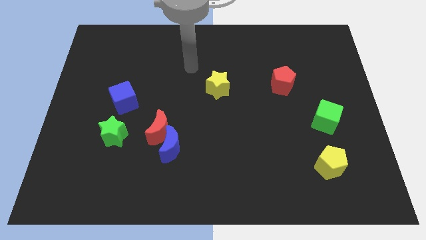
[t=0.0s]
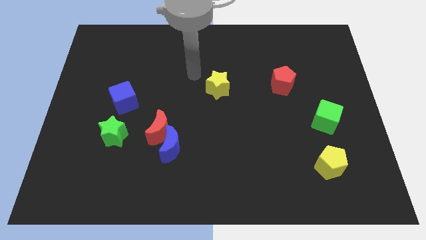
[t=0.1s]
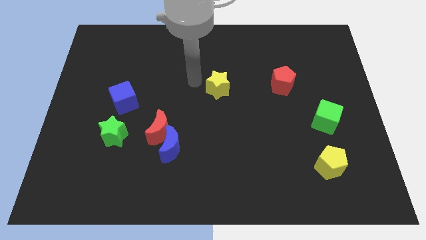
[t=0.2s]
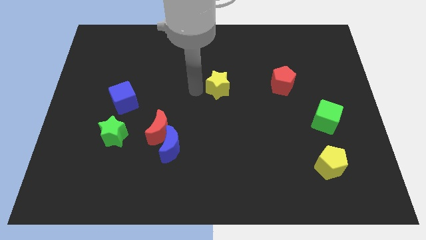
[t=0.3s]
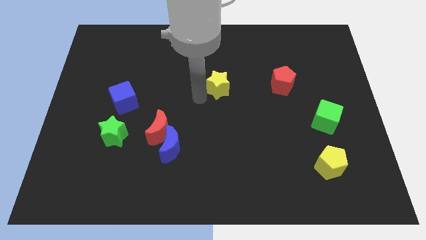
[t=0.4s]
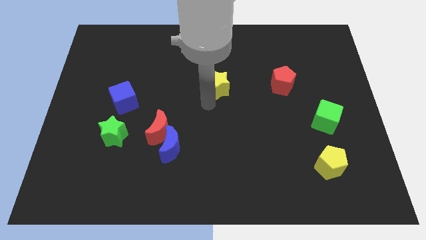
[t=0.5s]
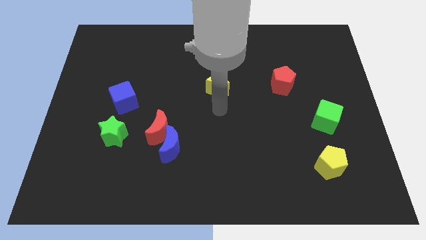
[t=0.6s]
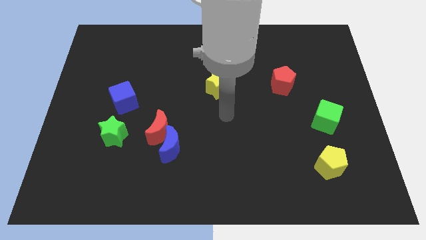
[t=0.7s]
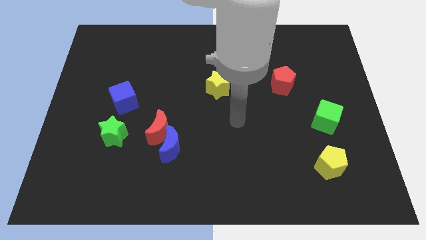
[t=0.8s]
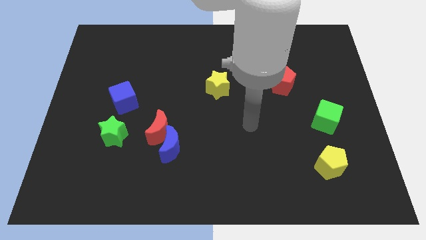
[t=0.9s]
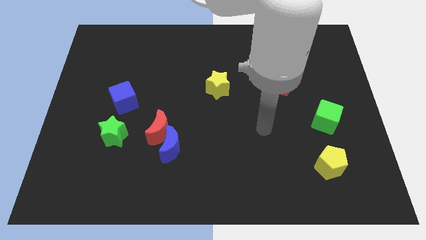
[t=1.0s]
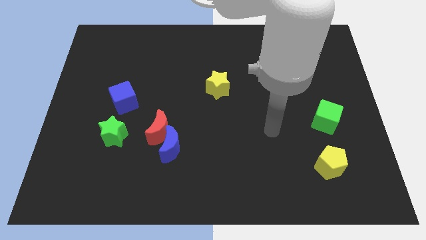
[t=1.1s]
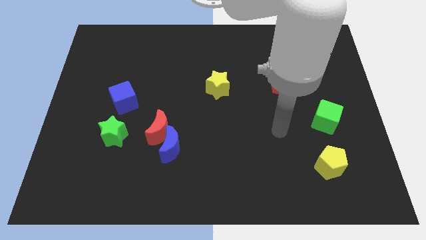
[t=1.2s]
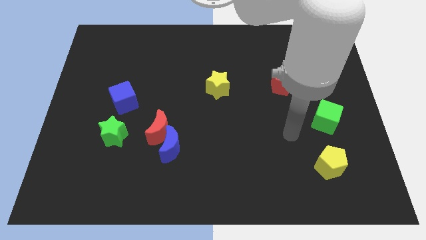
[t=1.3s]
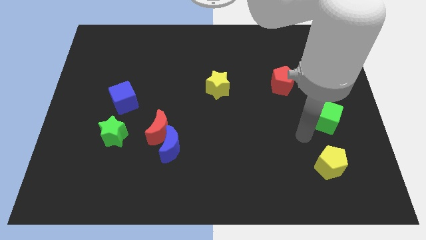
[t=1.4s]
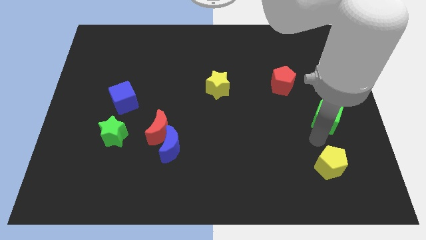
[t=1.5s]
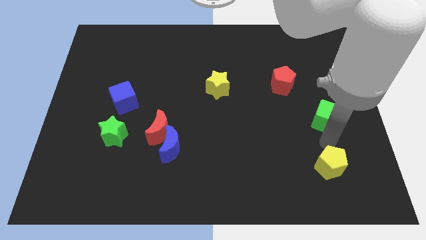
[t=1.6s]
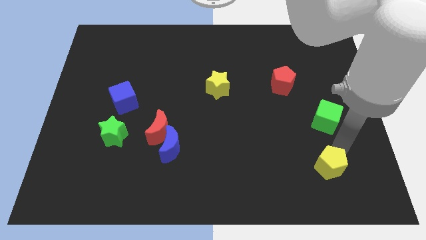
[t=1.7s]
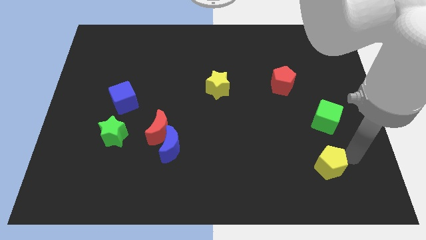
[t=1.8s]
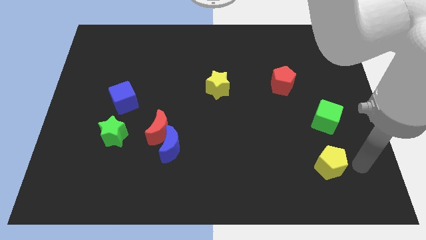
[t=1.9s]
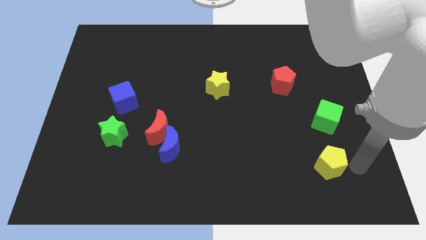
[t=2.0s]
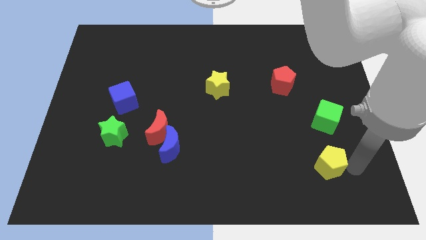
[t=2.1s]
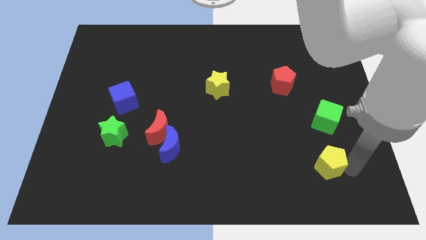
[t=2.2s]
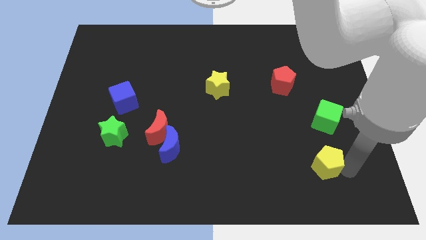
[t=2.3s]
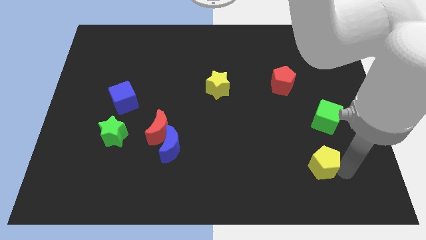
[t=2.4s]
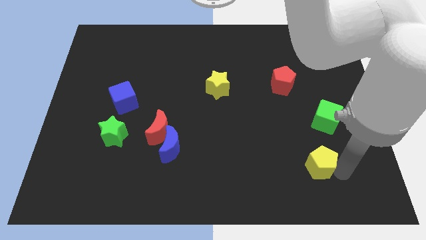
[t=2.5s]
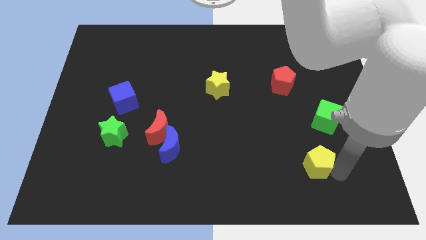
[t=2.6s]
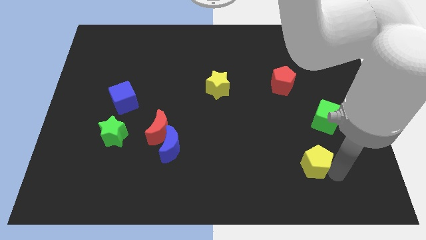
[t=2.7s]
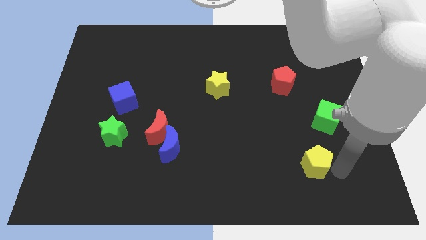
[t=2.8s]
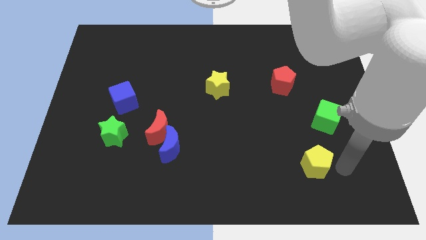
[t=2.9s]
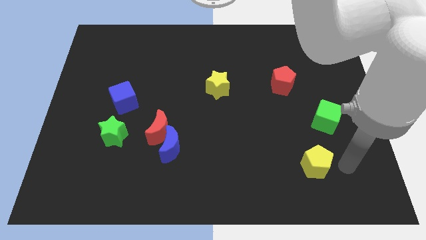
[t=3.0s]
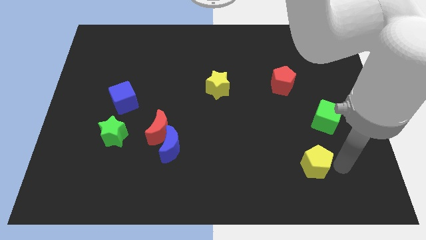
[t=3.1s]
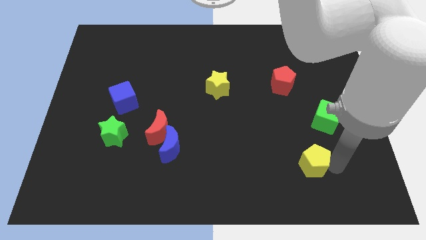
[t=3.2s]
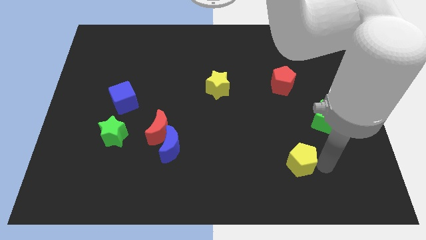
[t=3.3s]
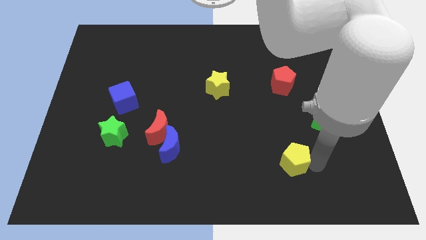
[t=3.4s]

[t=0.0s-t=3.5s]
slide the yellow pentagon slightly to the left

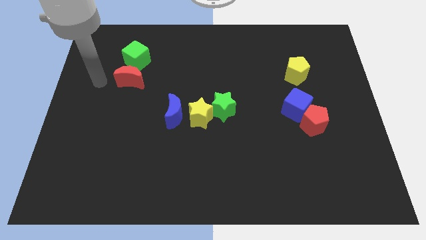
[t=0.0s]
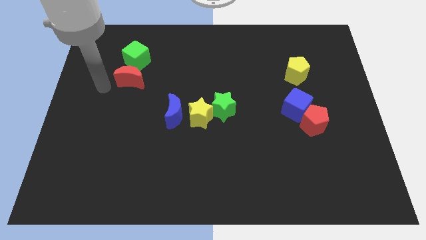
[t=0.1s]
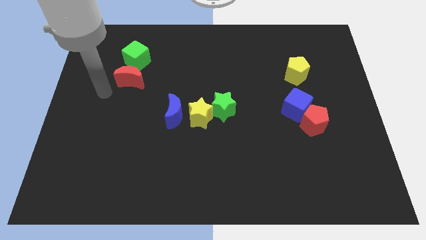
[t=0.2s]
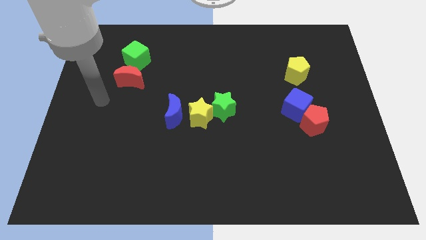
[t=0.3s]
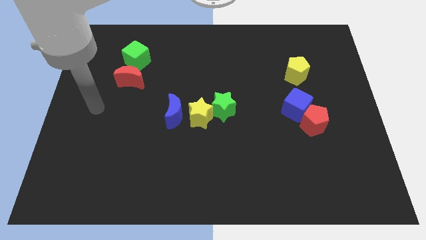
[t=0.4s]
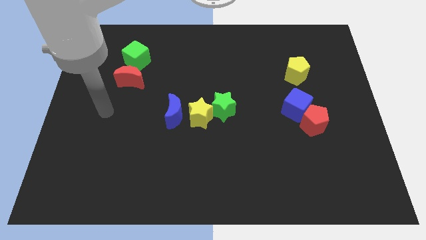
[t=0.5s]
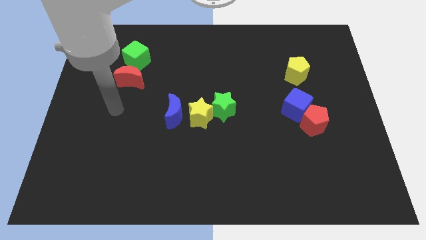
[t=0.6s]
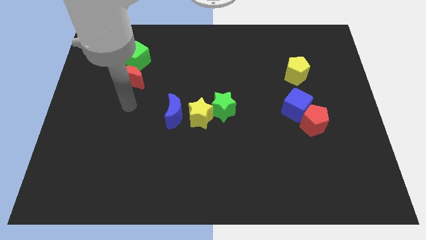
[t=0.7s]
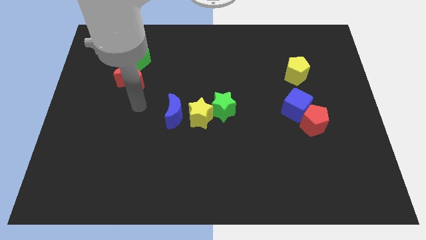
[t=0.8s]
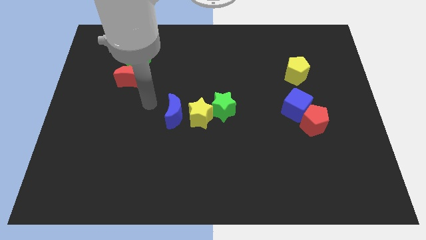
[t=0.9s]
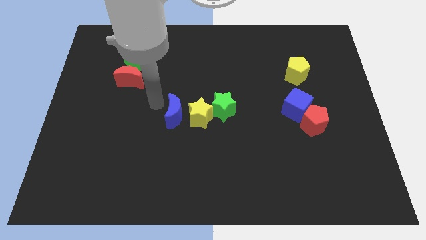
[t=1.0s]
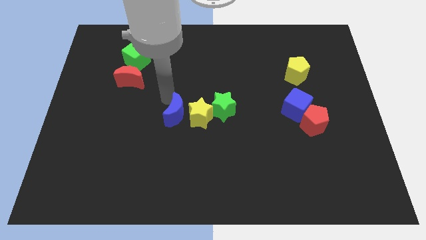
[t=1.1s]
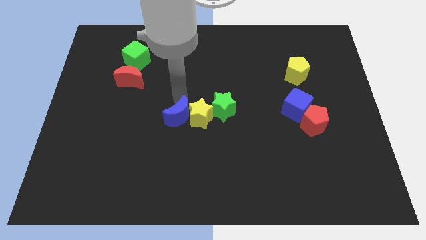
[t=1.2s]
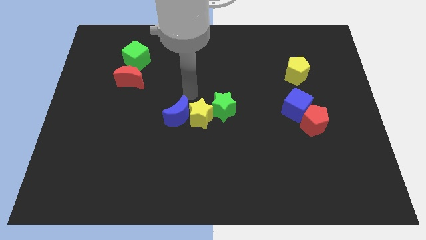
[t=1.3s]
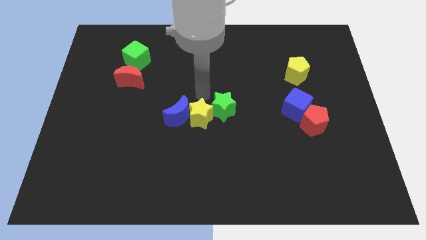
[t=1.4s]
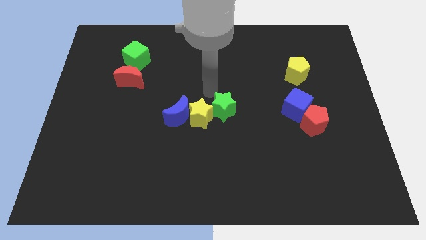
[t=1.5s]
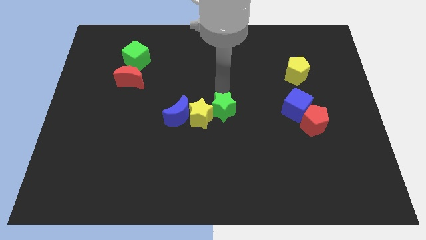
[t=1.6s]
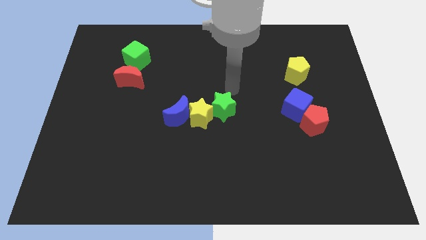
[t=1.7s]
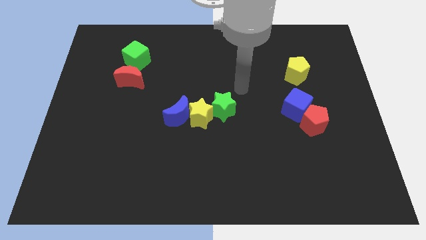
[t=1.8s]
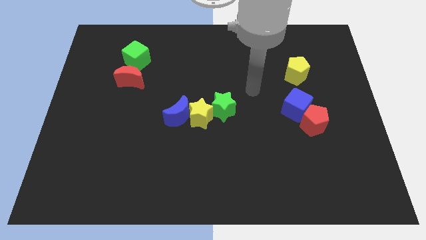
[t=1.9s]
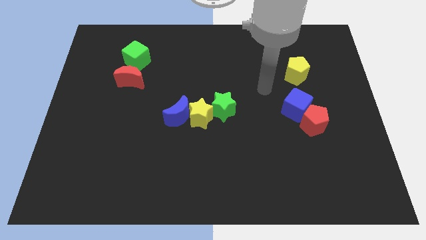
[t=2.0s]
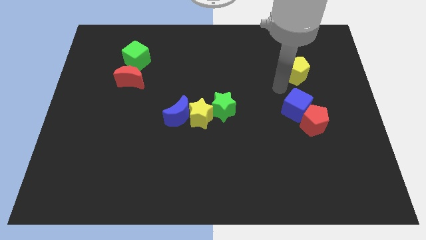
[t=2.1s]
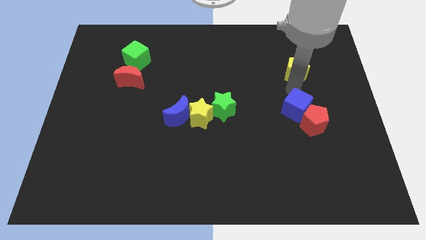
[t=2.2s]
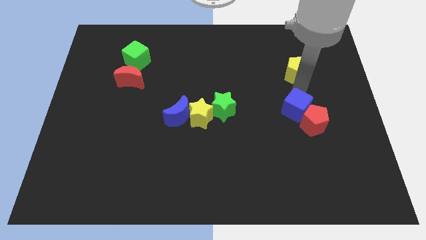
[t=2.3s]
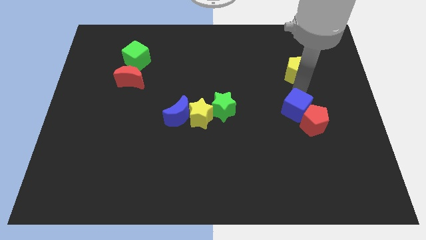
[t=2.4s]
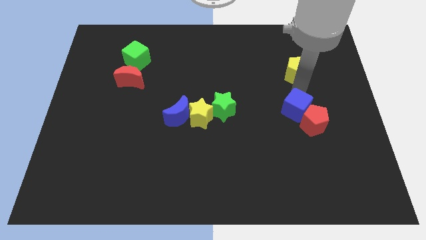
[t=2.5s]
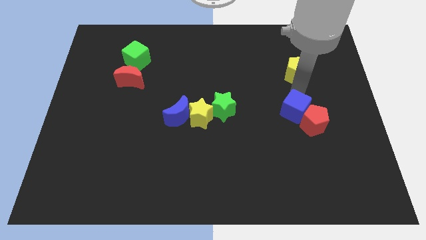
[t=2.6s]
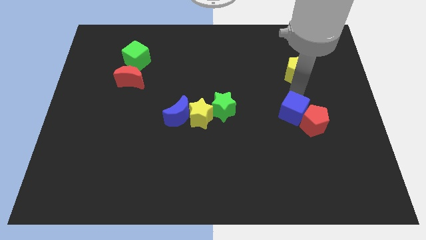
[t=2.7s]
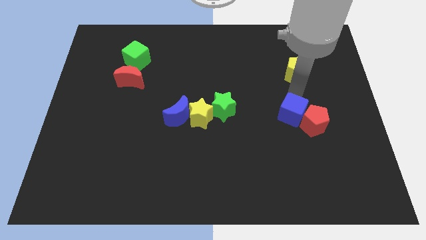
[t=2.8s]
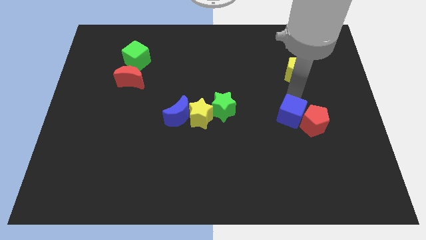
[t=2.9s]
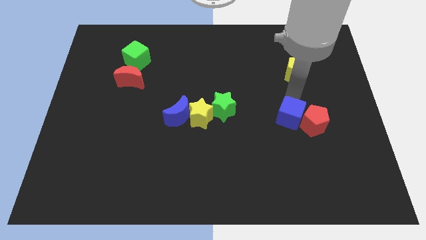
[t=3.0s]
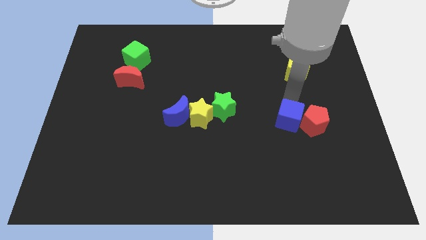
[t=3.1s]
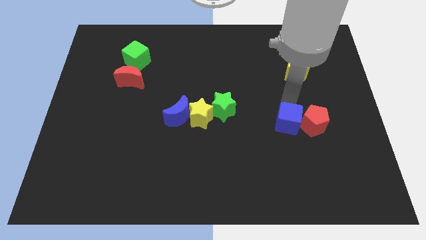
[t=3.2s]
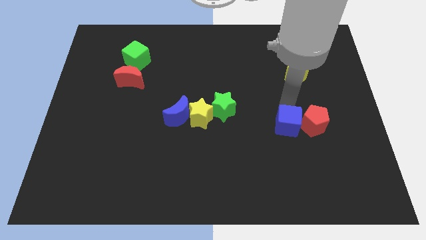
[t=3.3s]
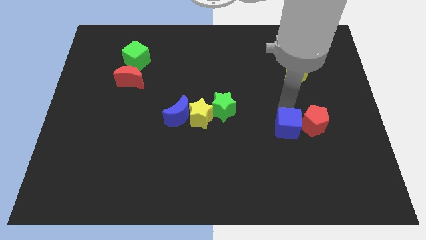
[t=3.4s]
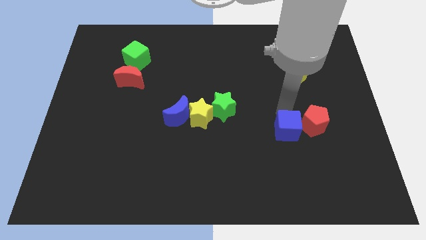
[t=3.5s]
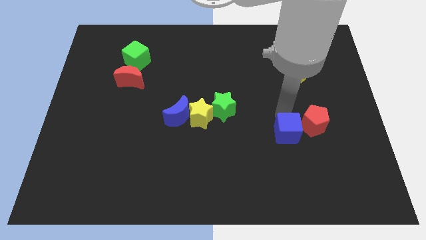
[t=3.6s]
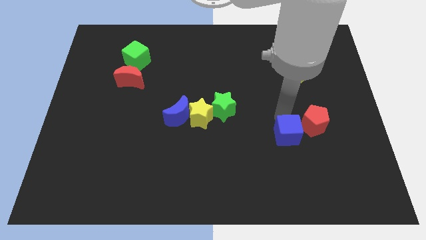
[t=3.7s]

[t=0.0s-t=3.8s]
move the blue cube down a little

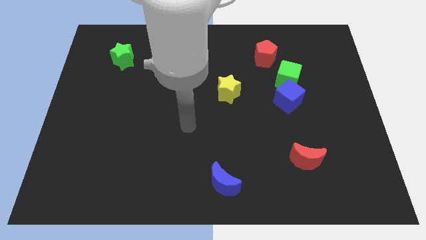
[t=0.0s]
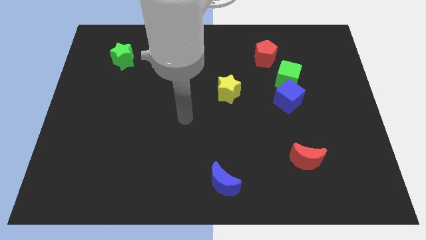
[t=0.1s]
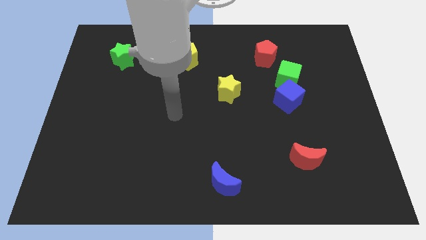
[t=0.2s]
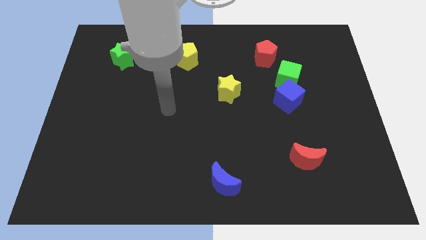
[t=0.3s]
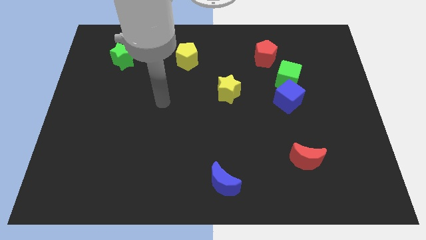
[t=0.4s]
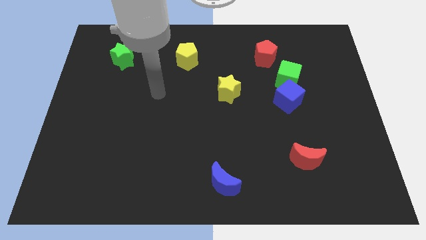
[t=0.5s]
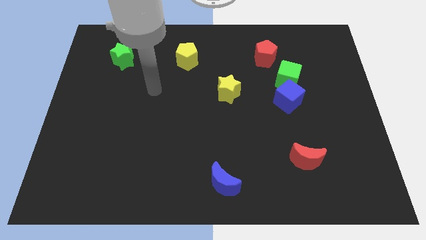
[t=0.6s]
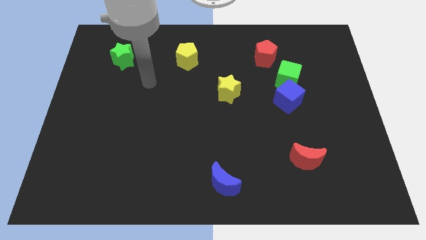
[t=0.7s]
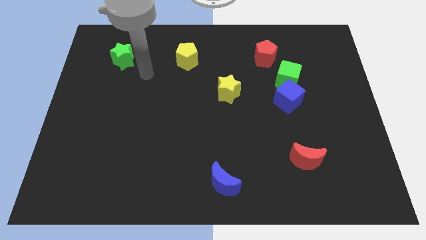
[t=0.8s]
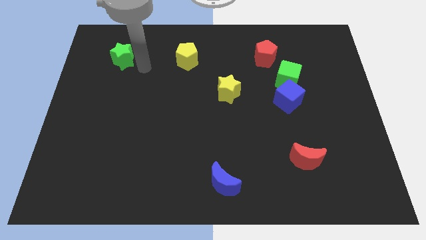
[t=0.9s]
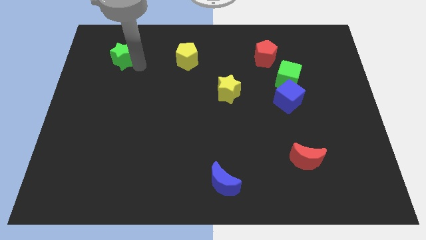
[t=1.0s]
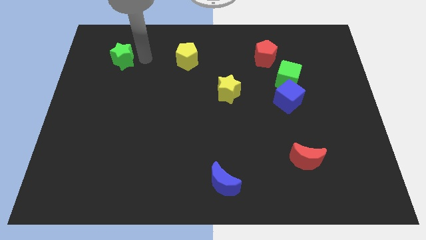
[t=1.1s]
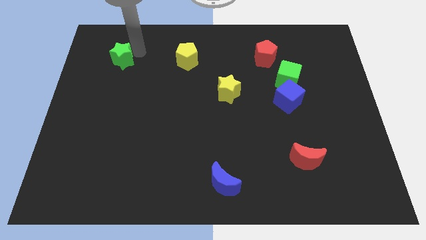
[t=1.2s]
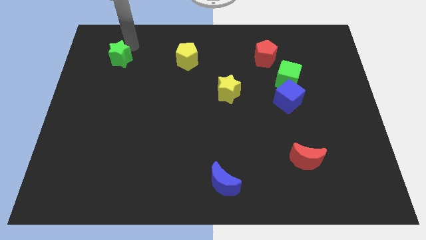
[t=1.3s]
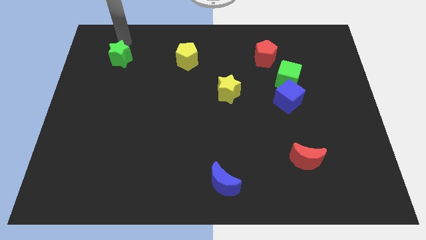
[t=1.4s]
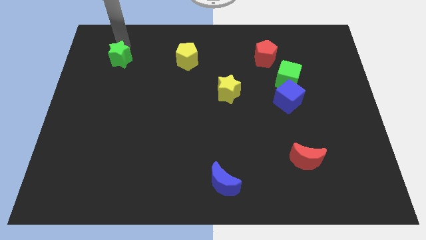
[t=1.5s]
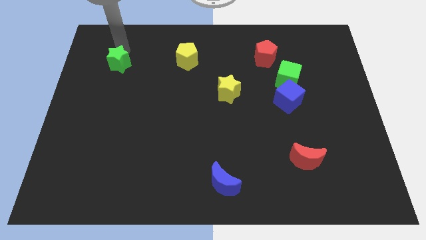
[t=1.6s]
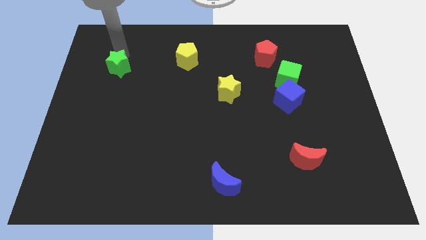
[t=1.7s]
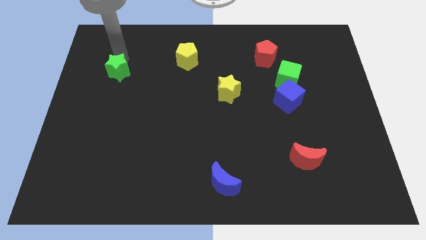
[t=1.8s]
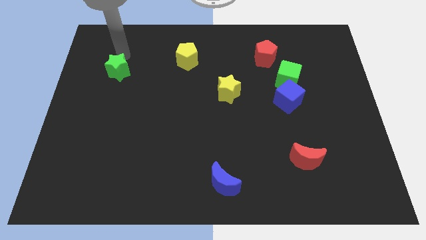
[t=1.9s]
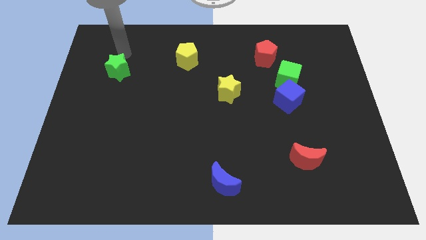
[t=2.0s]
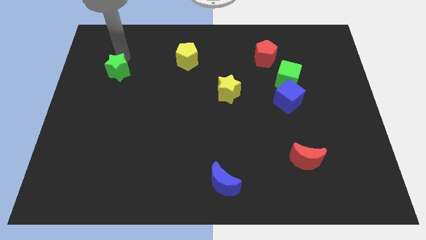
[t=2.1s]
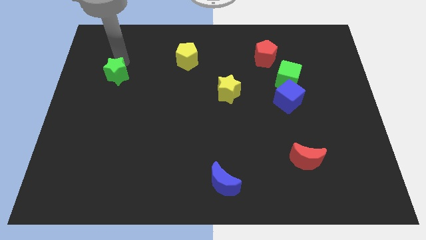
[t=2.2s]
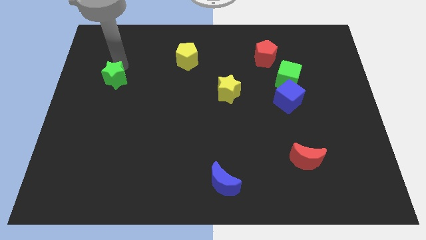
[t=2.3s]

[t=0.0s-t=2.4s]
slide the green star a little bit down
